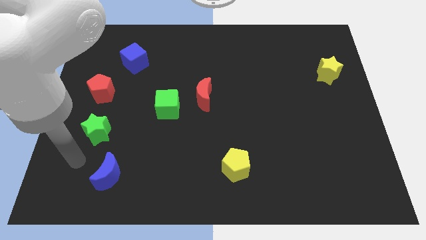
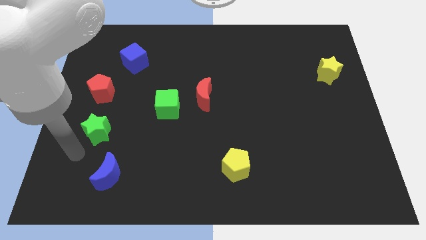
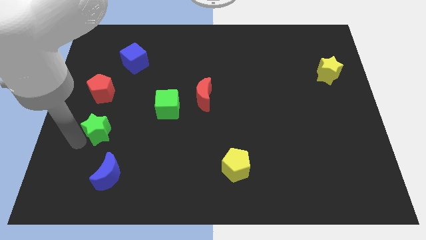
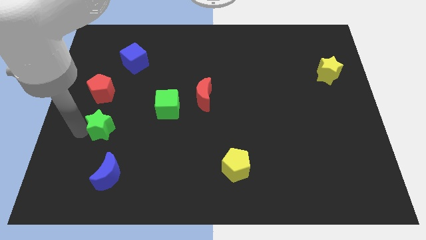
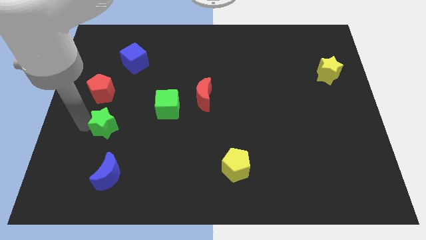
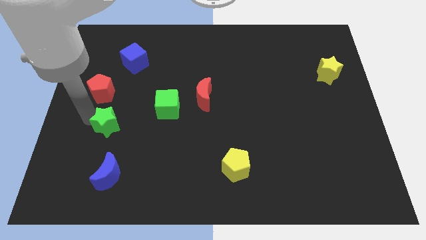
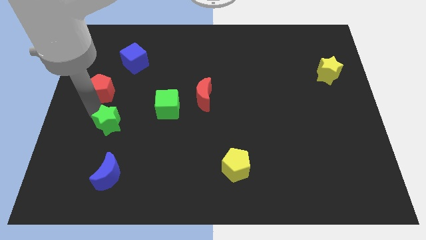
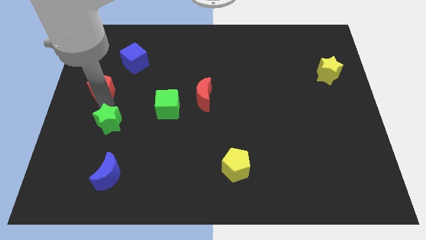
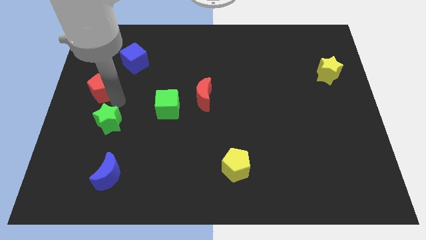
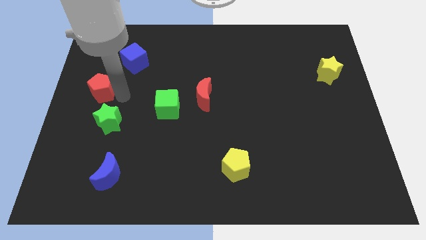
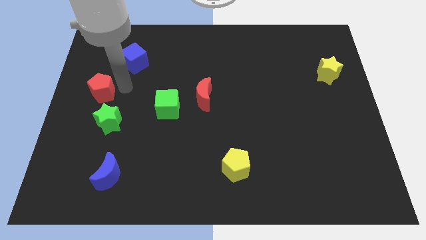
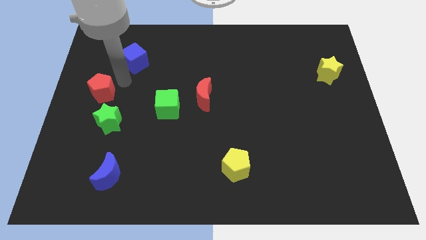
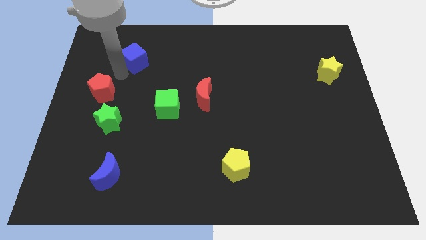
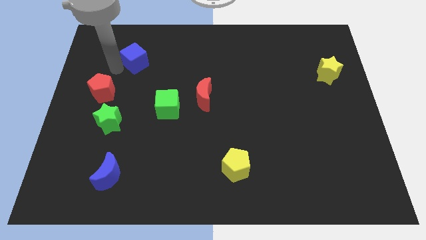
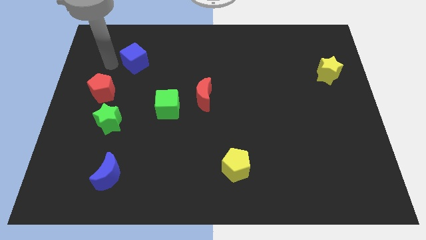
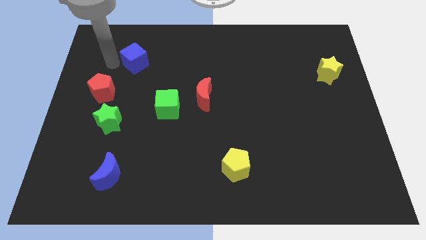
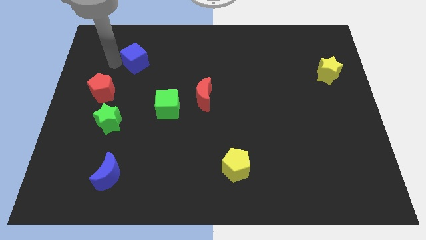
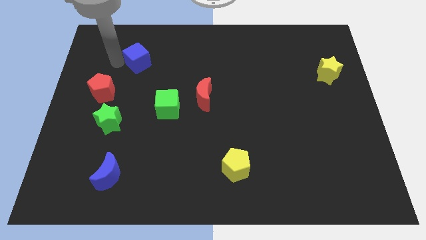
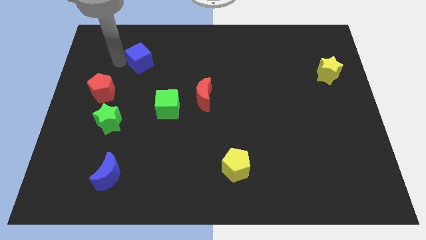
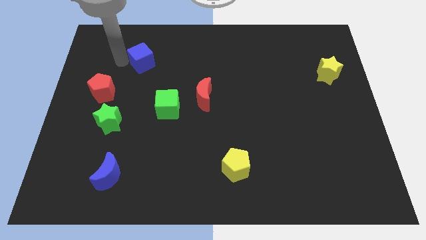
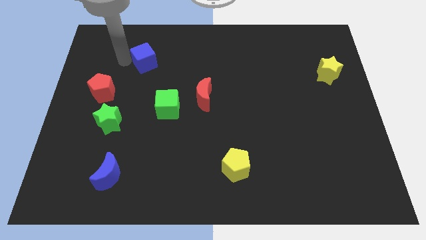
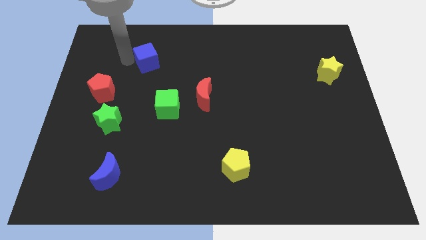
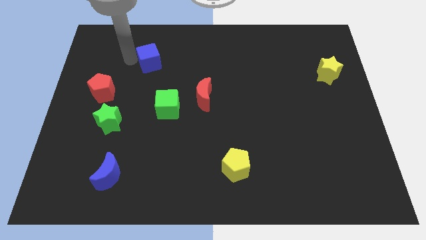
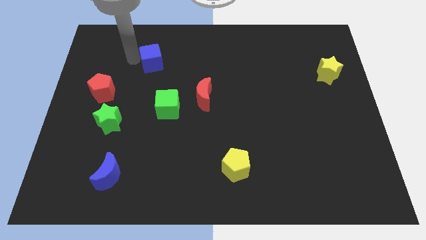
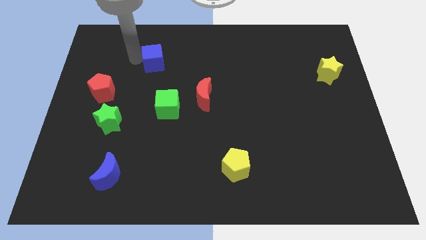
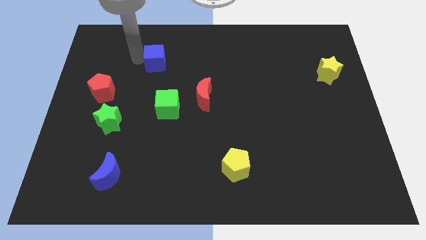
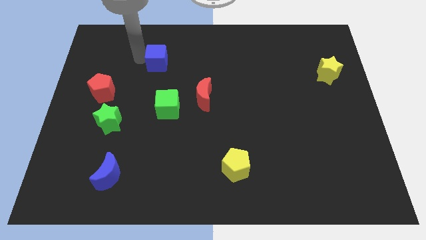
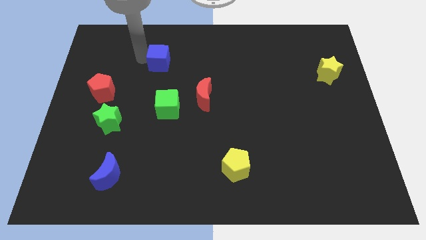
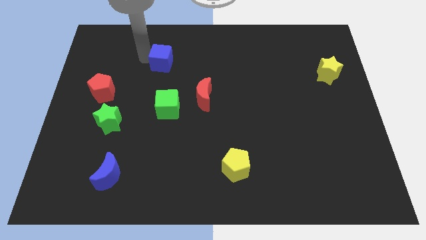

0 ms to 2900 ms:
slide the blue cube right somewhat

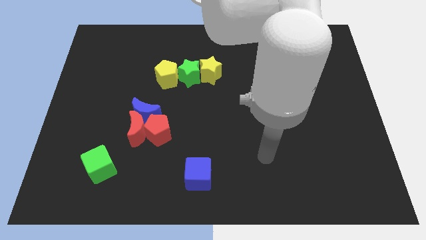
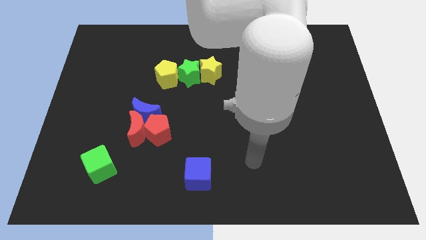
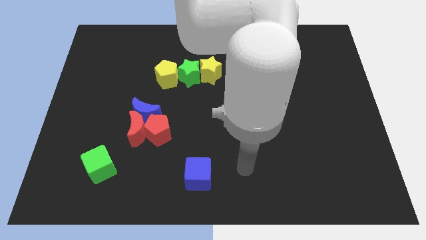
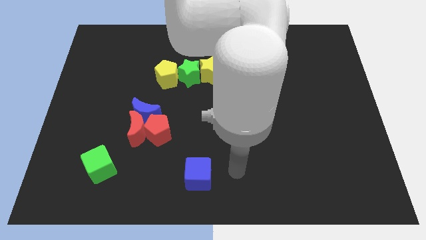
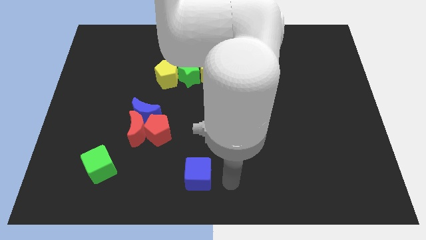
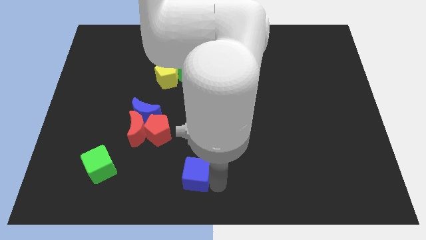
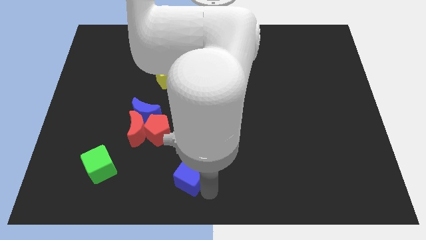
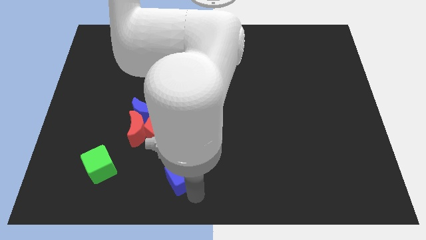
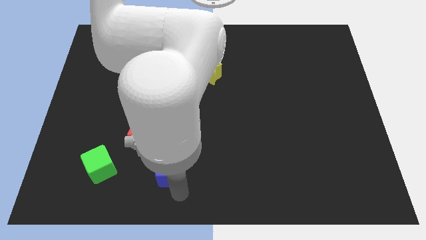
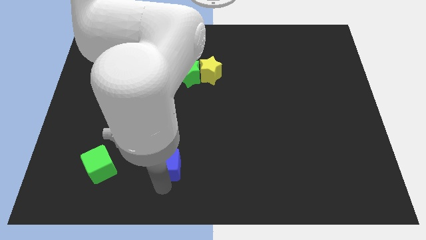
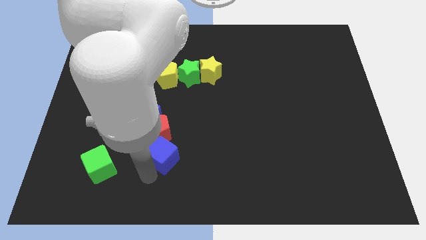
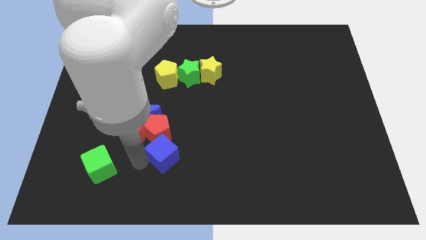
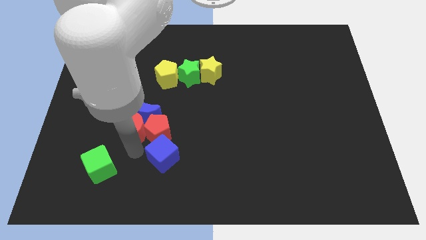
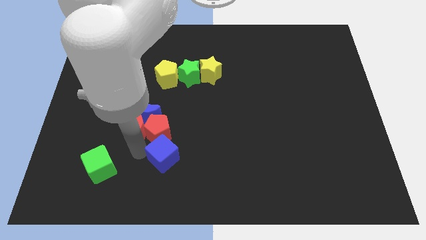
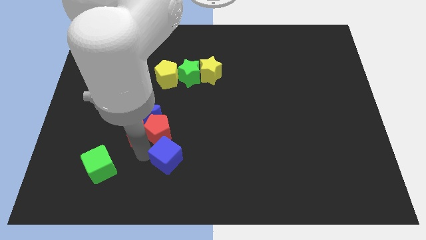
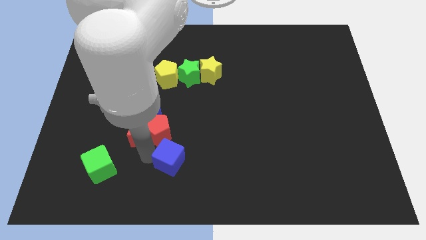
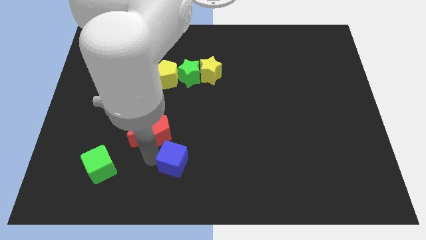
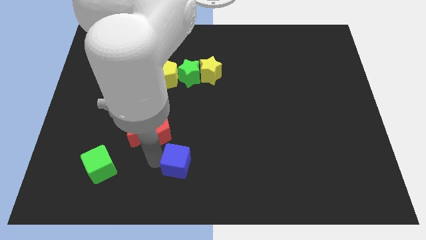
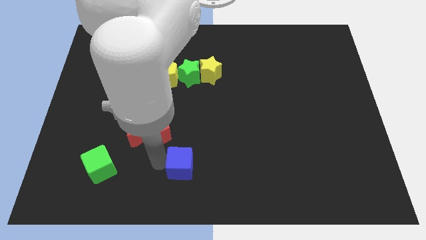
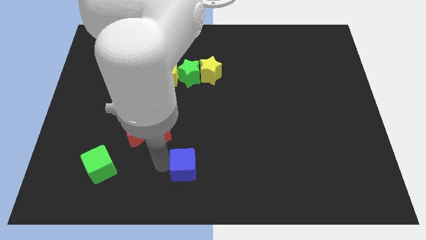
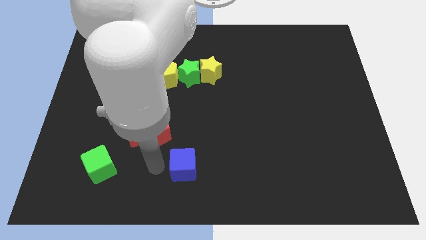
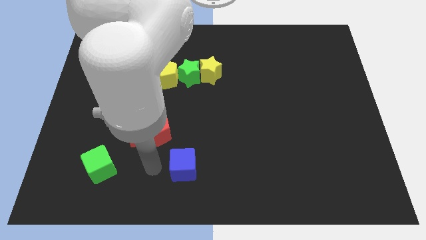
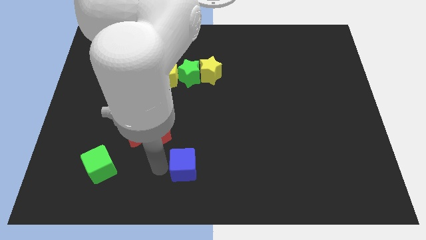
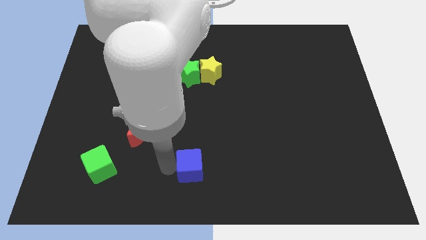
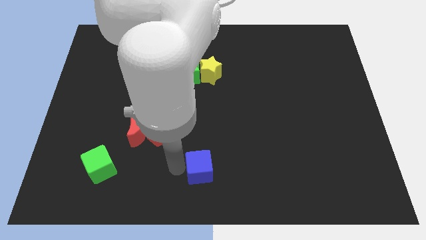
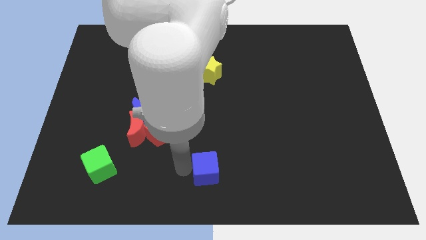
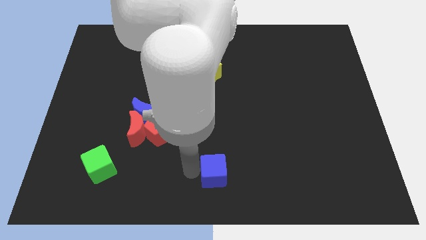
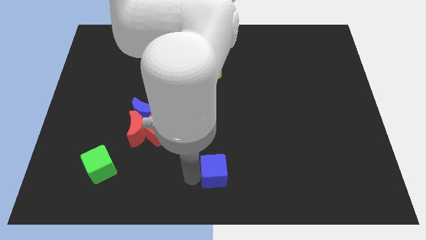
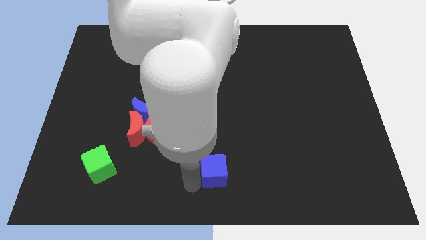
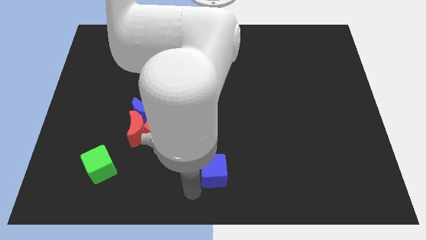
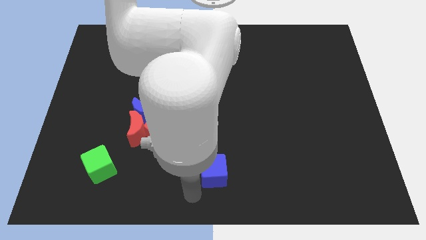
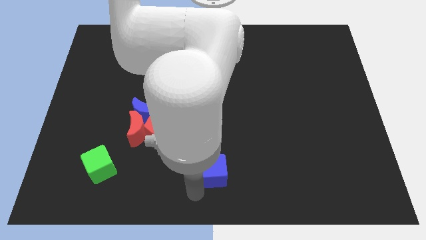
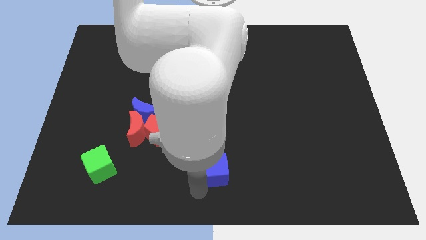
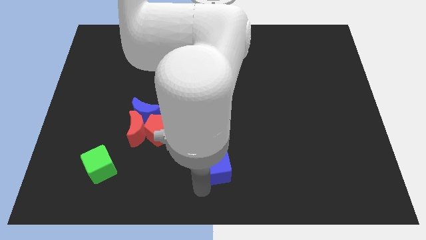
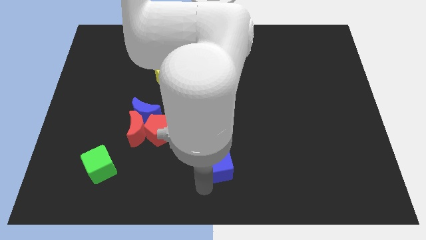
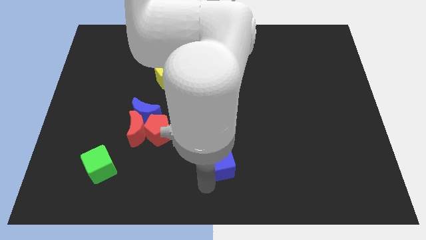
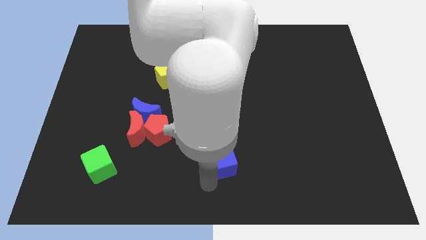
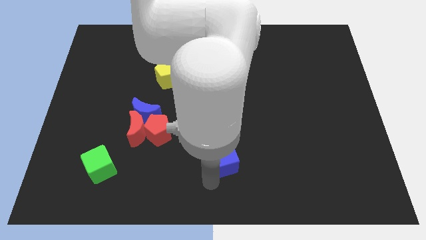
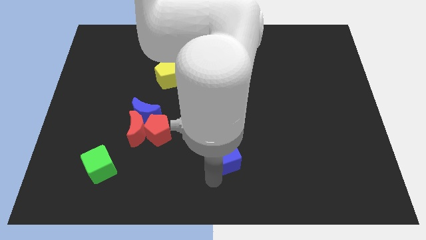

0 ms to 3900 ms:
move the blue cube diagonally up and to the right somewhat

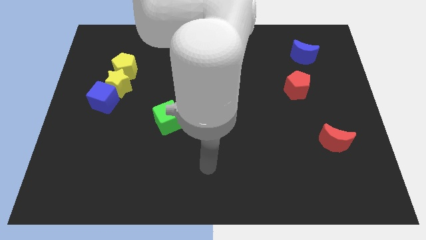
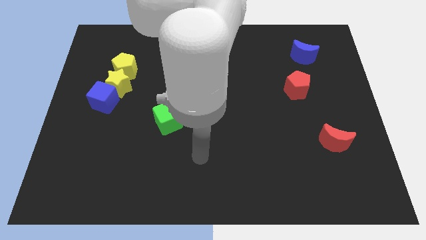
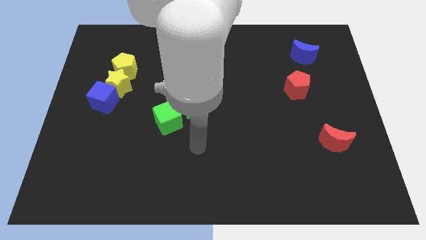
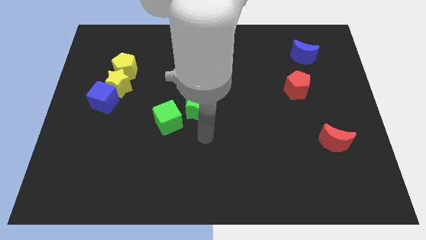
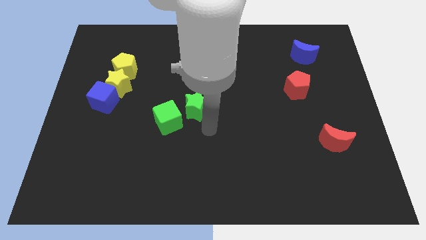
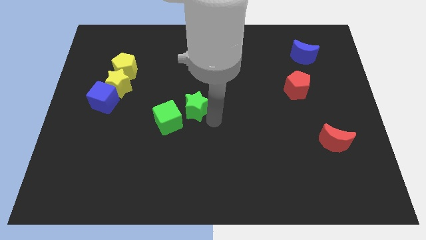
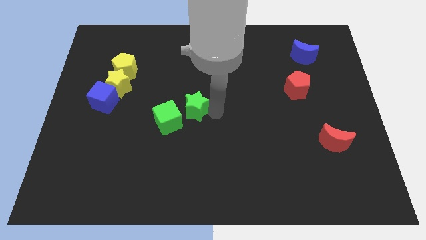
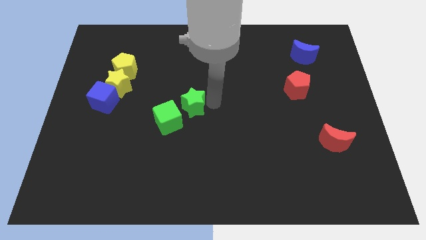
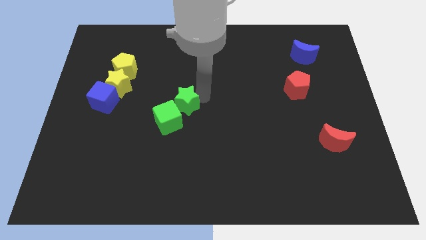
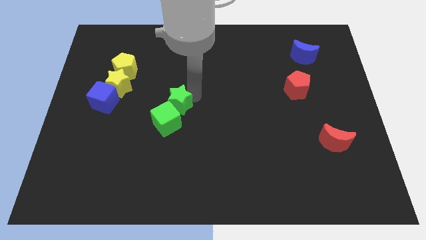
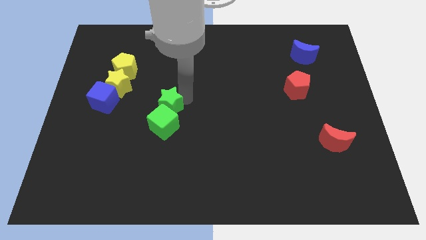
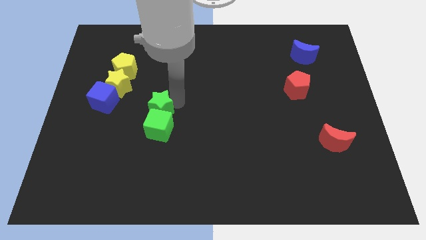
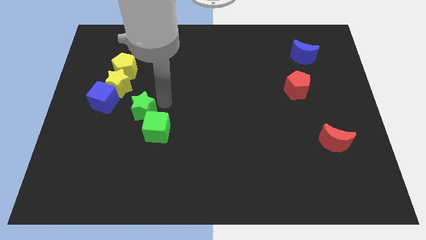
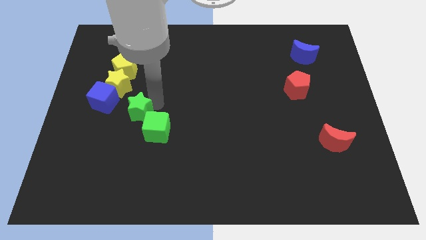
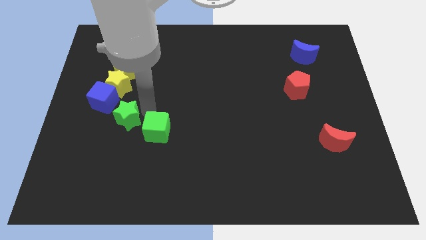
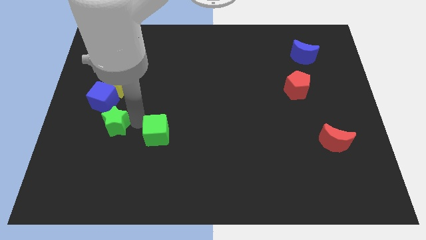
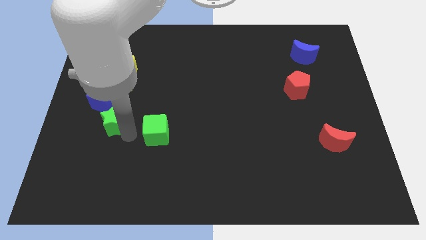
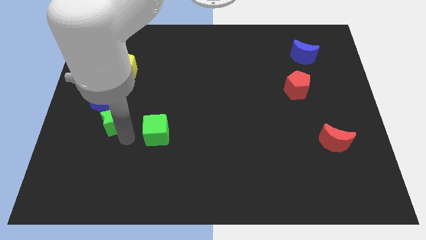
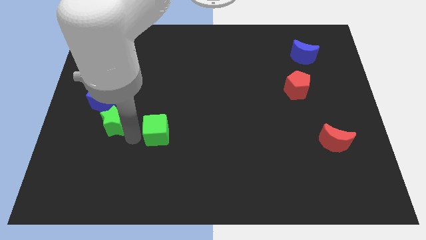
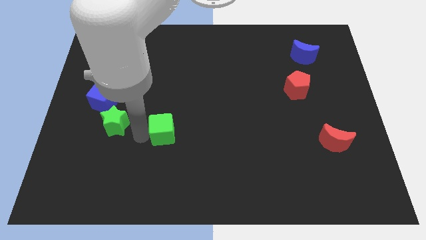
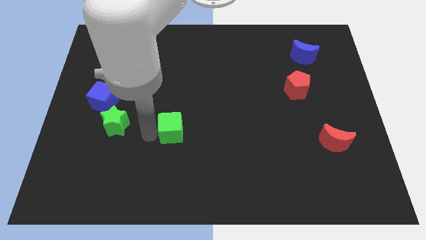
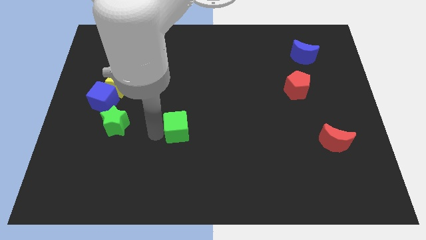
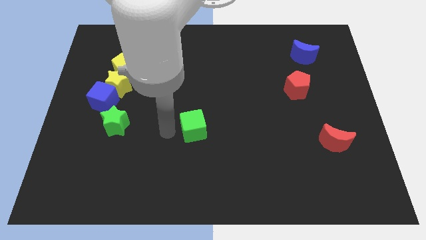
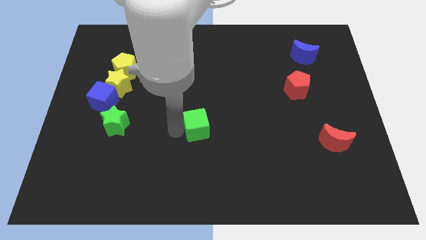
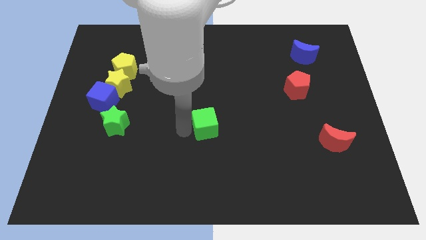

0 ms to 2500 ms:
push the green cube slightly to the right
